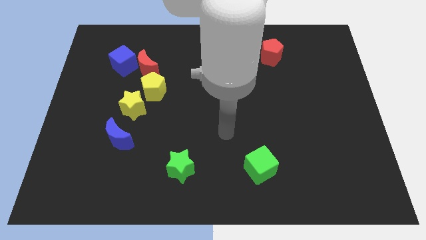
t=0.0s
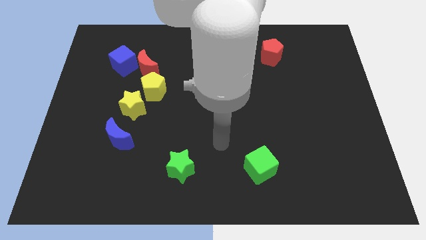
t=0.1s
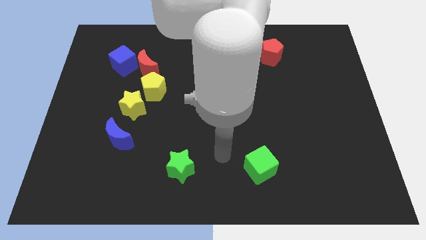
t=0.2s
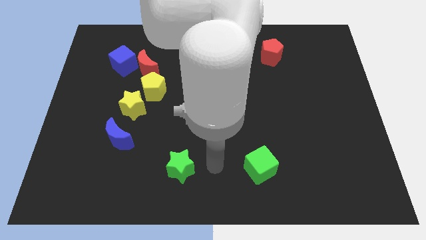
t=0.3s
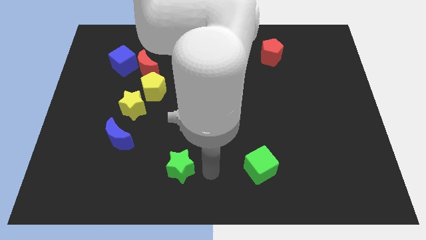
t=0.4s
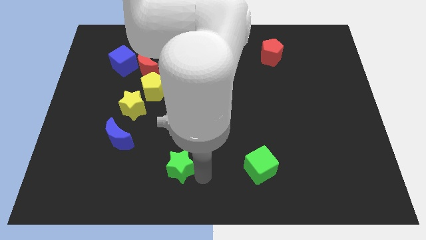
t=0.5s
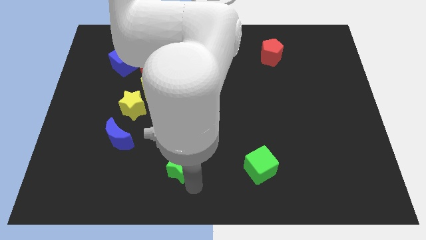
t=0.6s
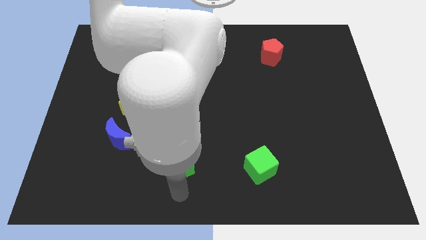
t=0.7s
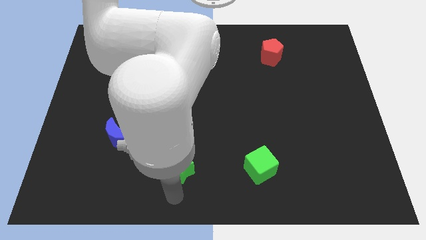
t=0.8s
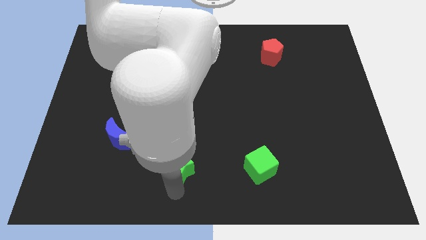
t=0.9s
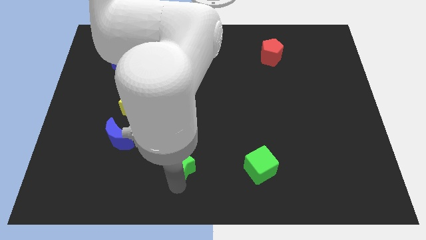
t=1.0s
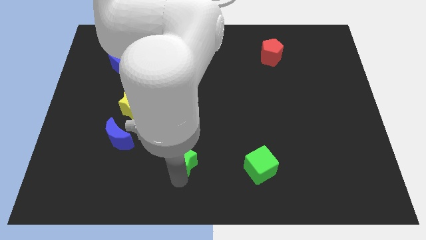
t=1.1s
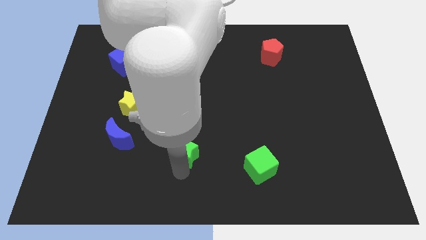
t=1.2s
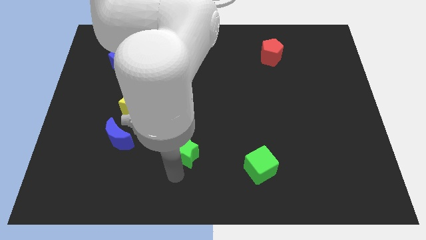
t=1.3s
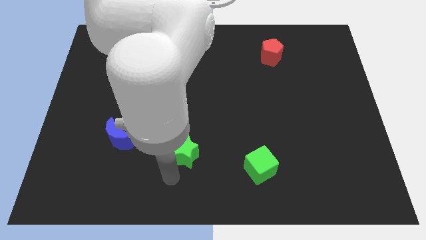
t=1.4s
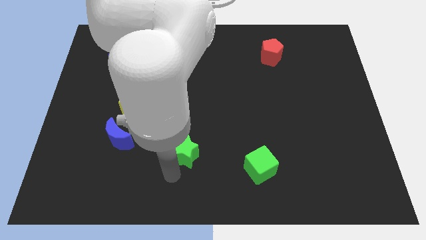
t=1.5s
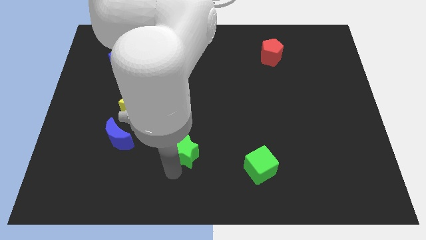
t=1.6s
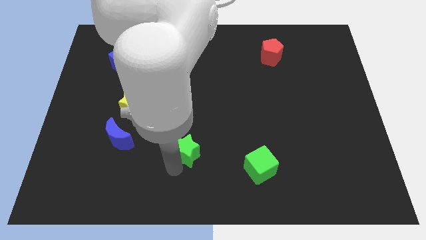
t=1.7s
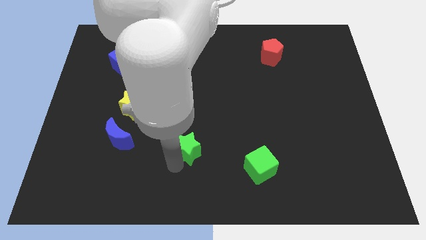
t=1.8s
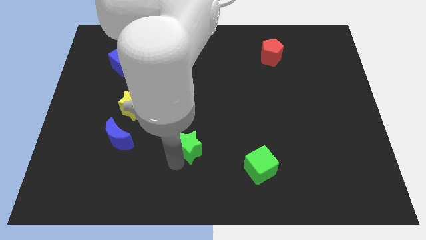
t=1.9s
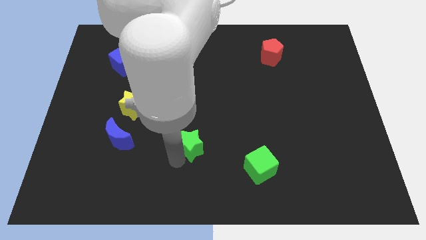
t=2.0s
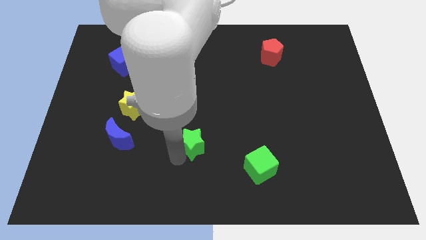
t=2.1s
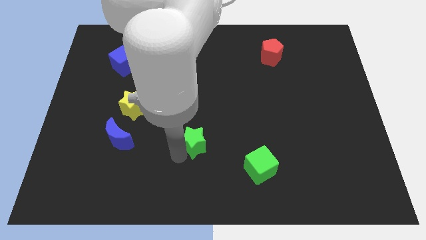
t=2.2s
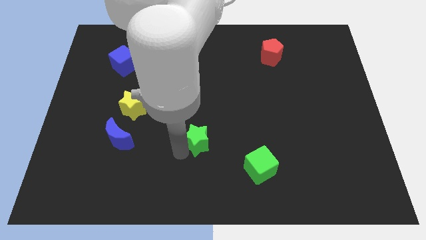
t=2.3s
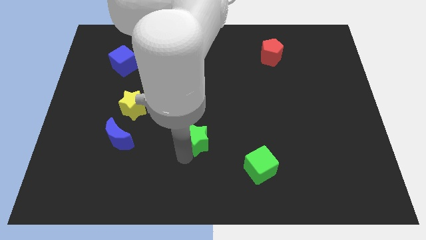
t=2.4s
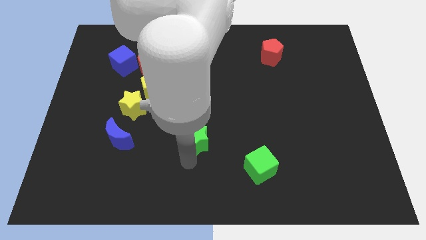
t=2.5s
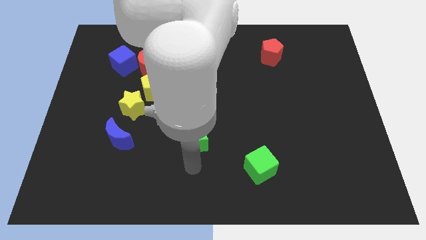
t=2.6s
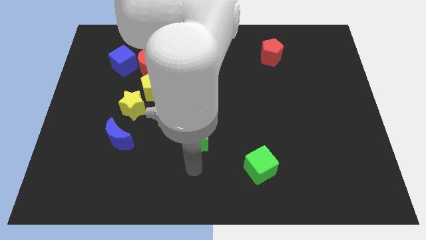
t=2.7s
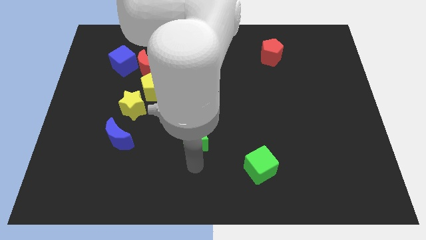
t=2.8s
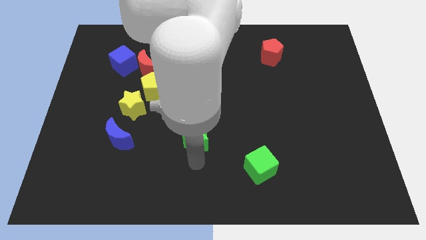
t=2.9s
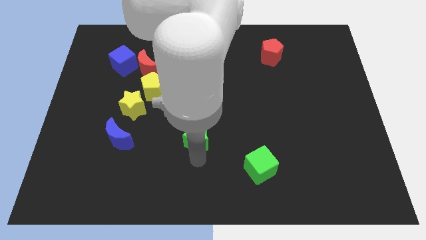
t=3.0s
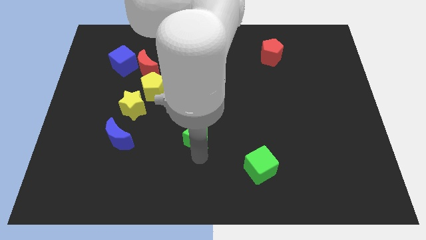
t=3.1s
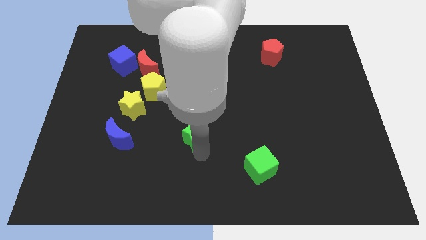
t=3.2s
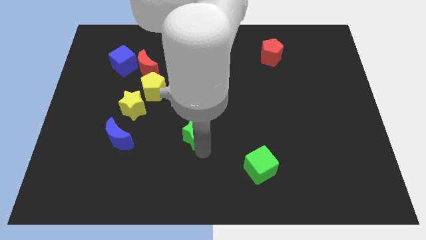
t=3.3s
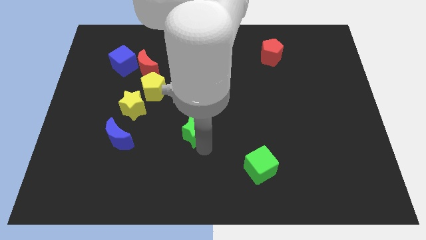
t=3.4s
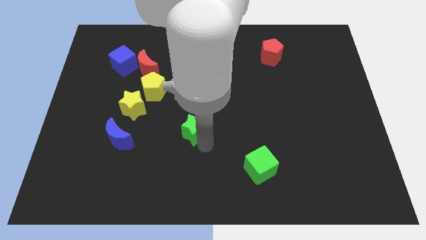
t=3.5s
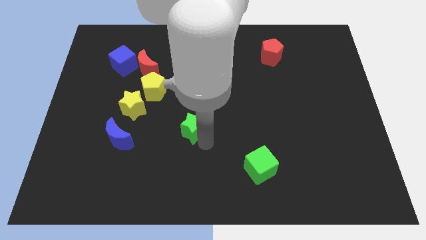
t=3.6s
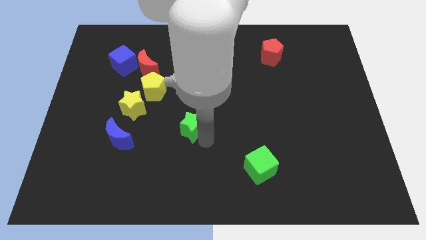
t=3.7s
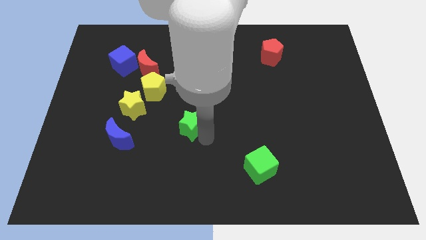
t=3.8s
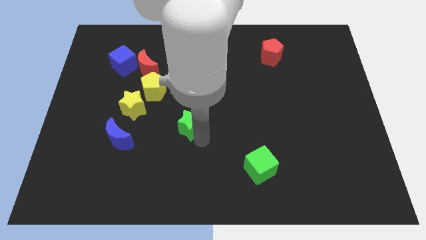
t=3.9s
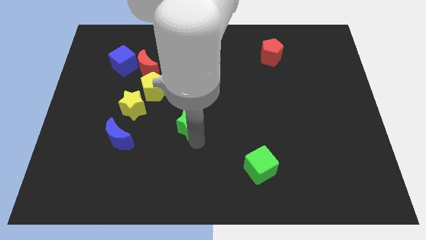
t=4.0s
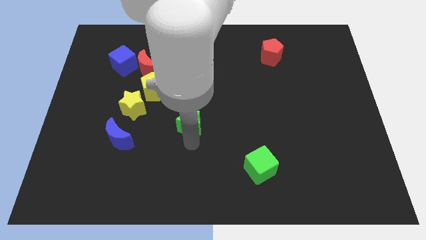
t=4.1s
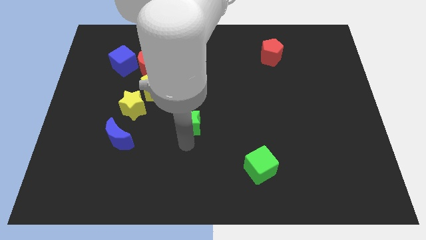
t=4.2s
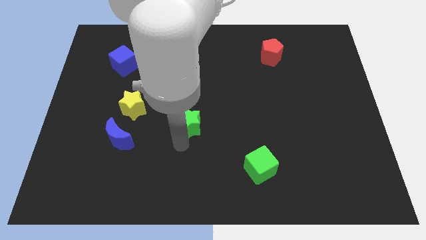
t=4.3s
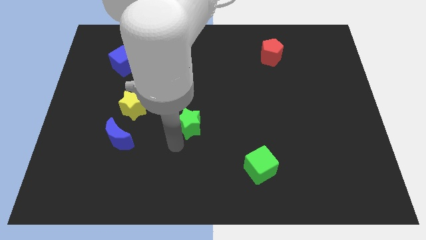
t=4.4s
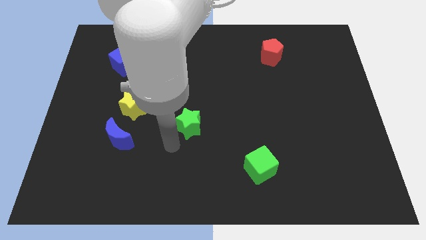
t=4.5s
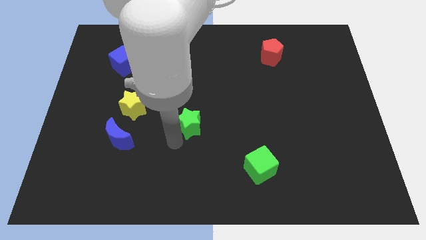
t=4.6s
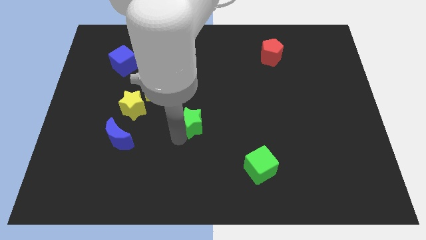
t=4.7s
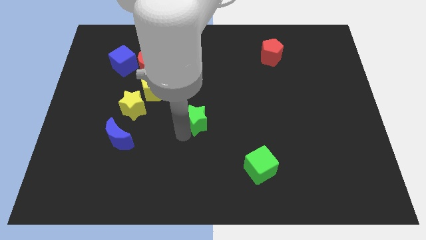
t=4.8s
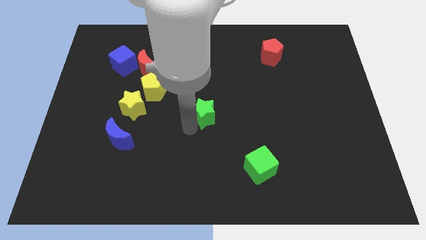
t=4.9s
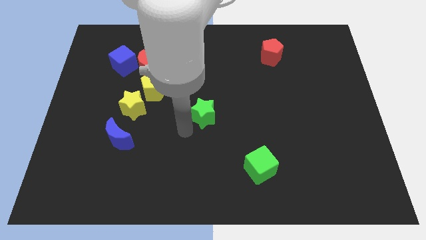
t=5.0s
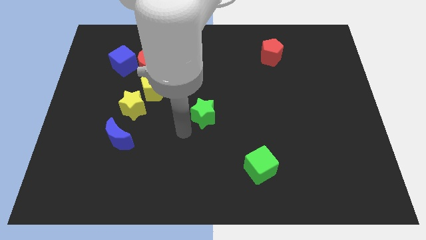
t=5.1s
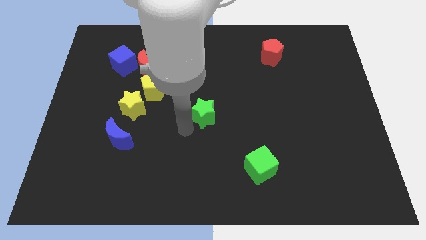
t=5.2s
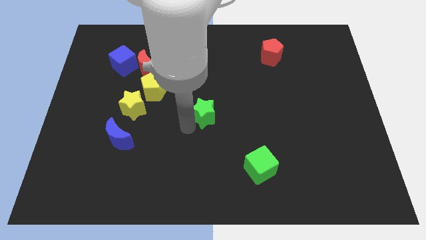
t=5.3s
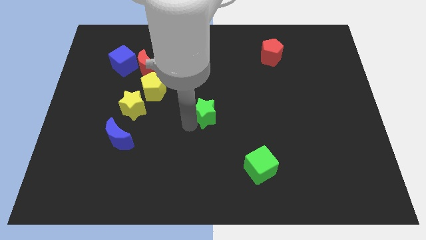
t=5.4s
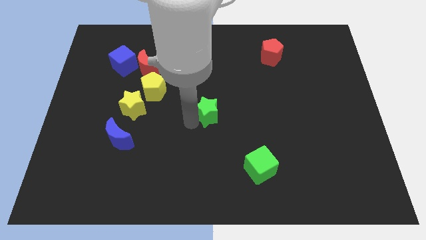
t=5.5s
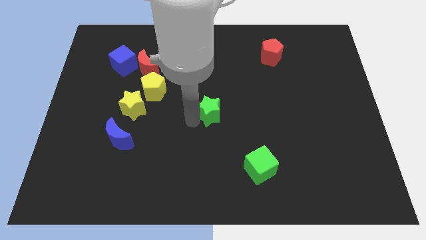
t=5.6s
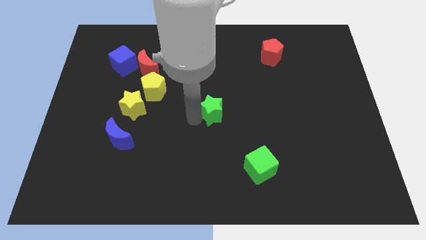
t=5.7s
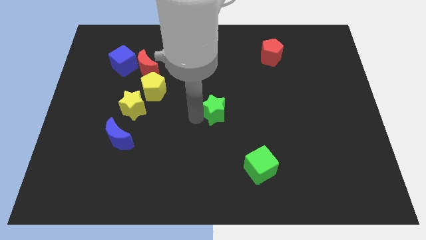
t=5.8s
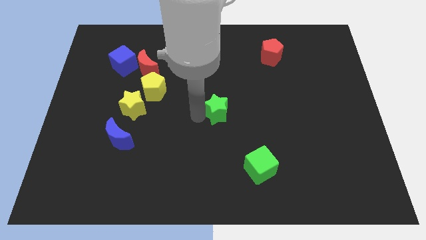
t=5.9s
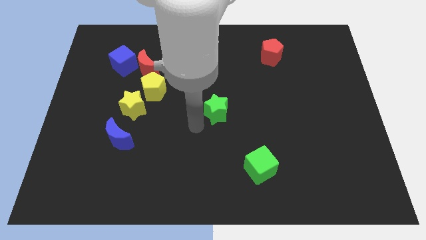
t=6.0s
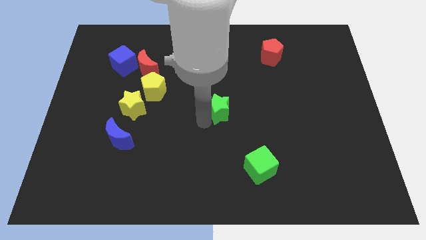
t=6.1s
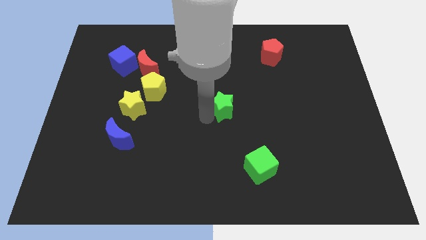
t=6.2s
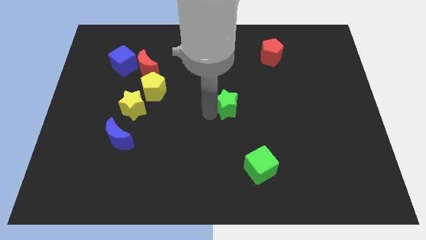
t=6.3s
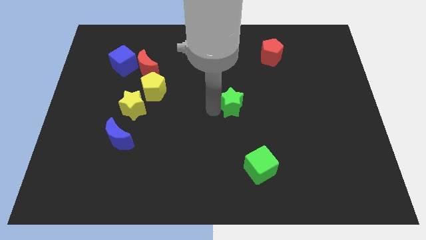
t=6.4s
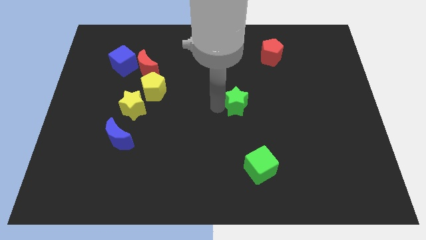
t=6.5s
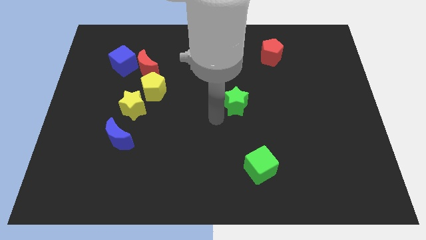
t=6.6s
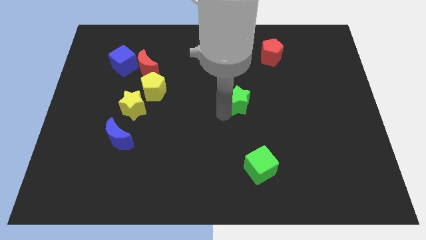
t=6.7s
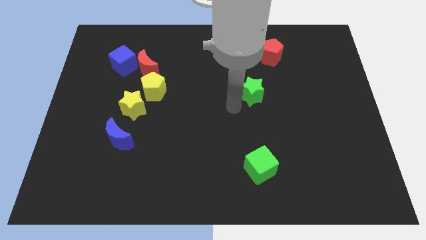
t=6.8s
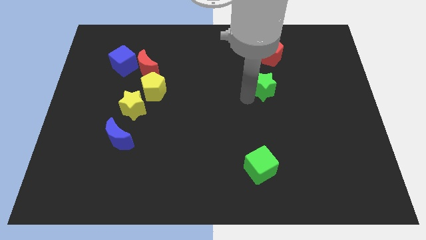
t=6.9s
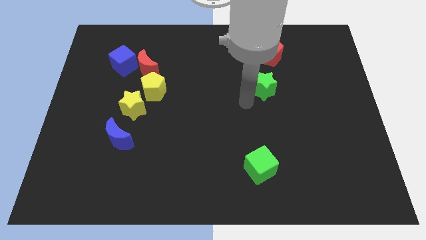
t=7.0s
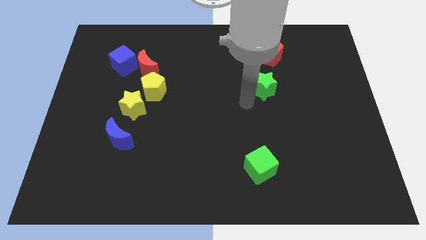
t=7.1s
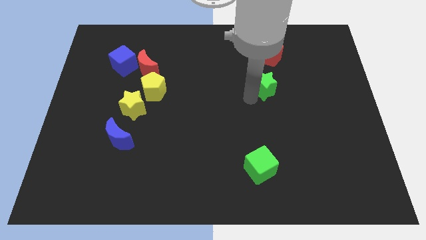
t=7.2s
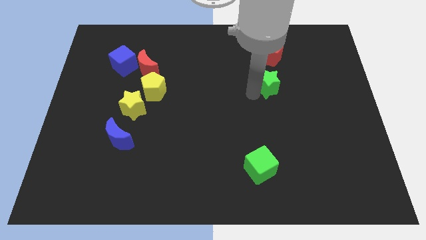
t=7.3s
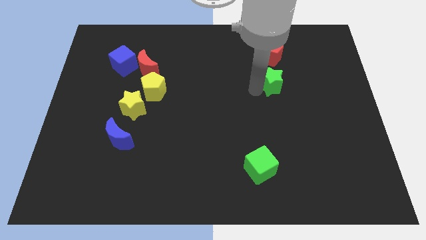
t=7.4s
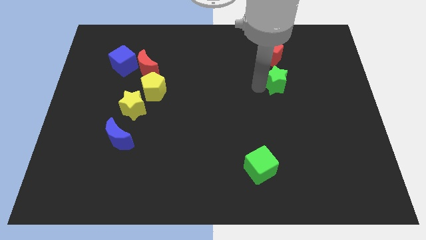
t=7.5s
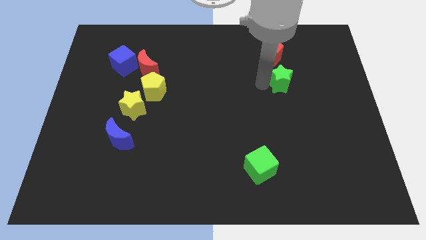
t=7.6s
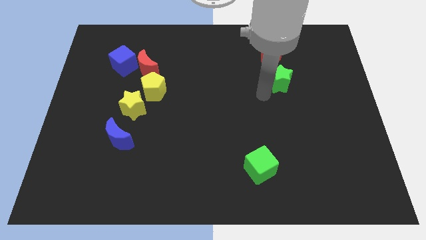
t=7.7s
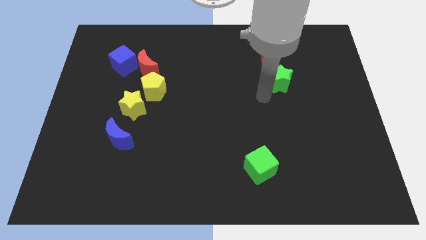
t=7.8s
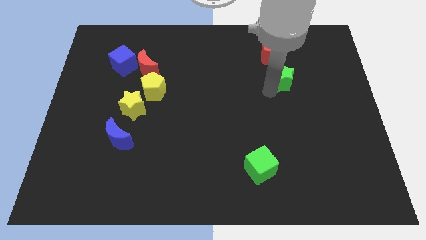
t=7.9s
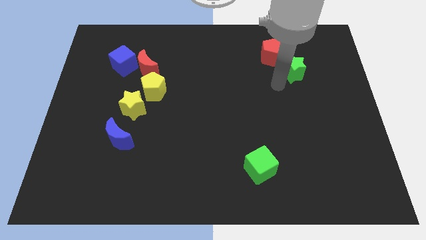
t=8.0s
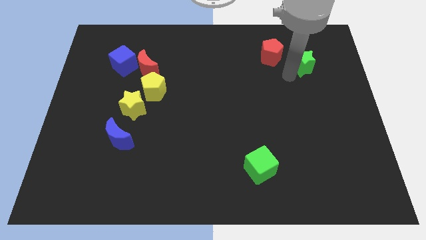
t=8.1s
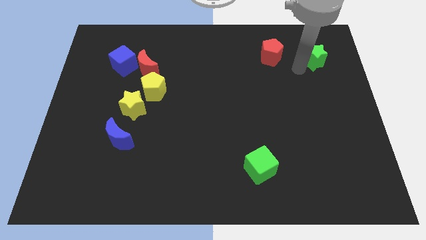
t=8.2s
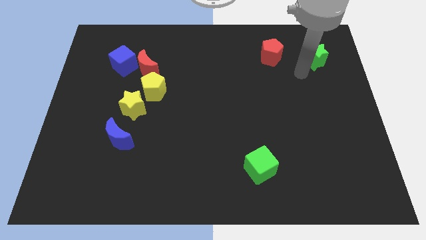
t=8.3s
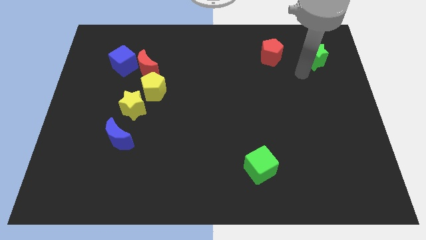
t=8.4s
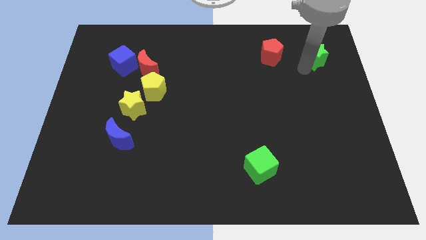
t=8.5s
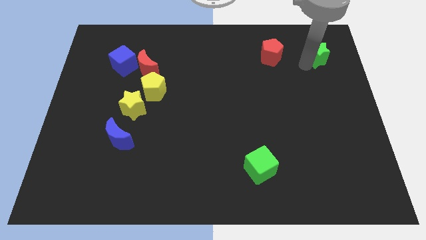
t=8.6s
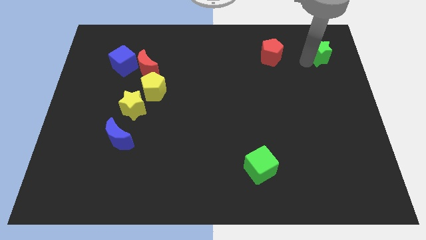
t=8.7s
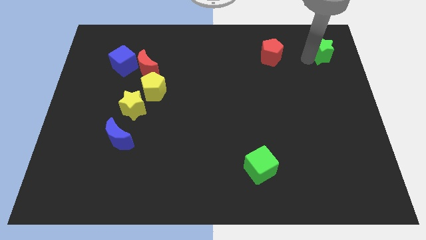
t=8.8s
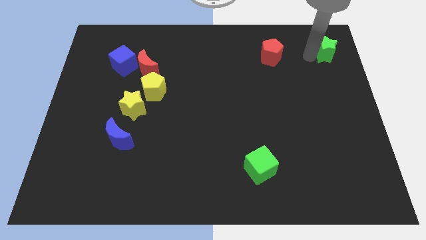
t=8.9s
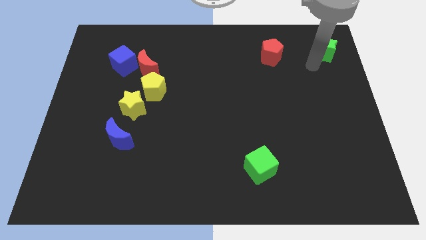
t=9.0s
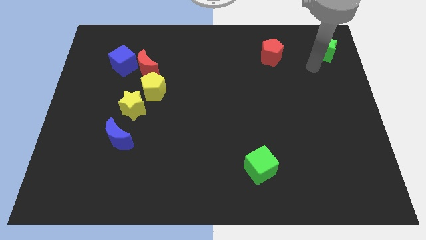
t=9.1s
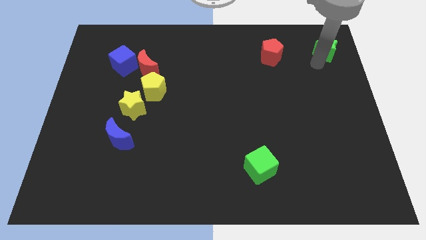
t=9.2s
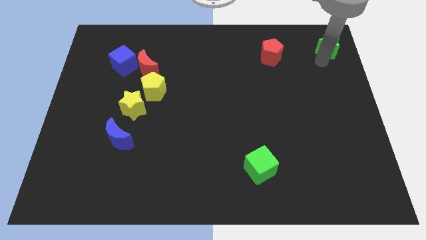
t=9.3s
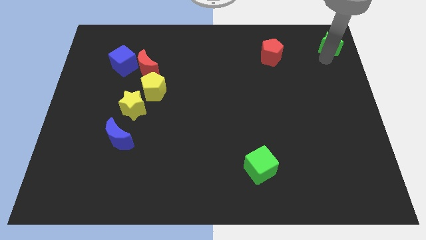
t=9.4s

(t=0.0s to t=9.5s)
push the green star to the top right
